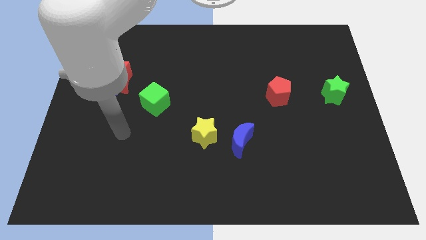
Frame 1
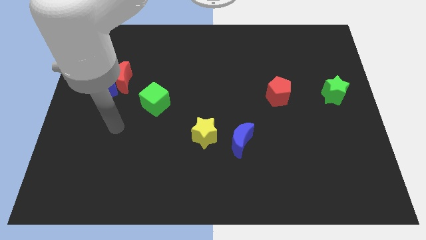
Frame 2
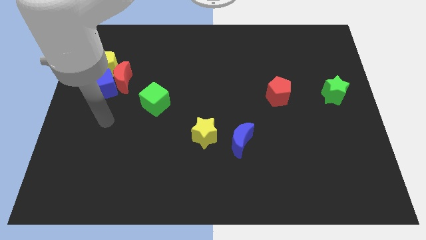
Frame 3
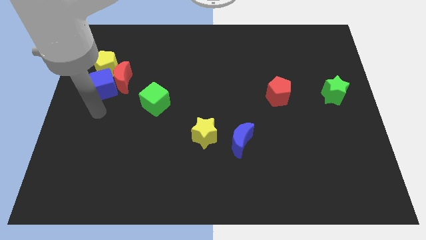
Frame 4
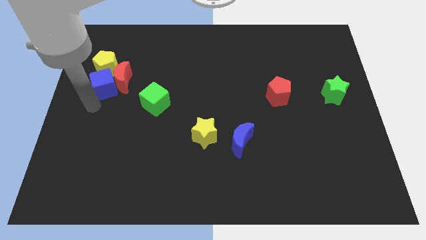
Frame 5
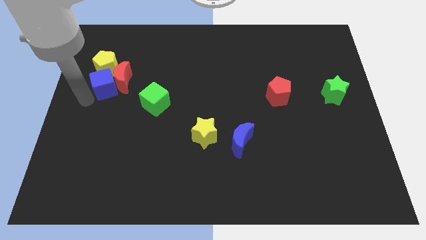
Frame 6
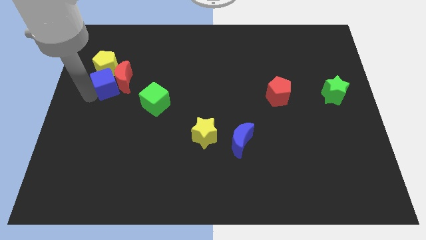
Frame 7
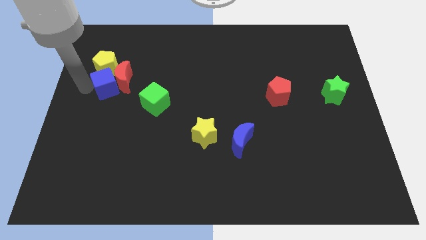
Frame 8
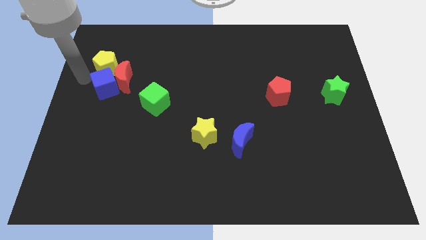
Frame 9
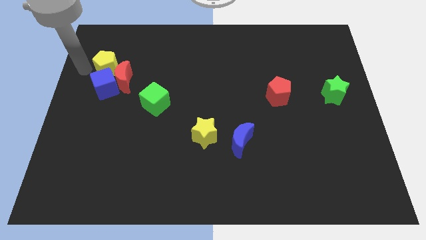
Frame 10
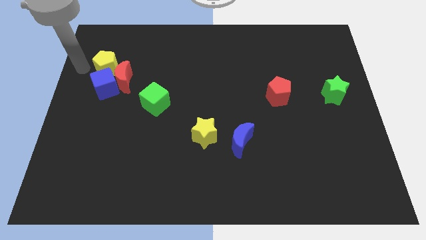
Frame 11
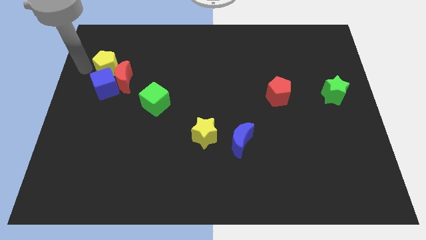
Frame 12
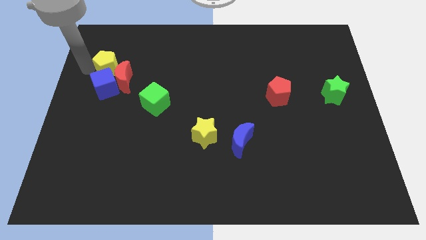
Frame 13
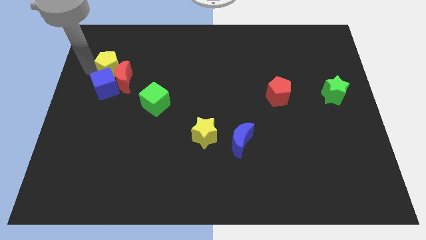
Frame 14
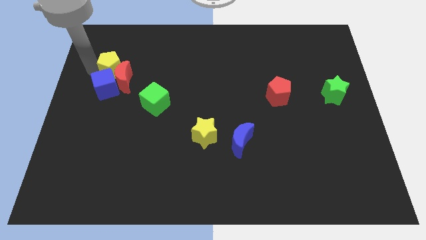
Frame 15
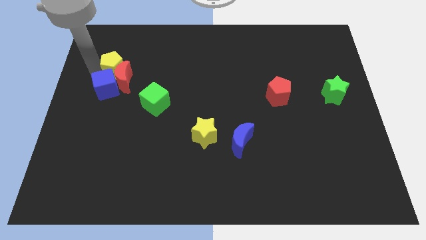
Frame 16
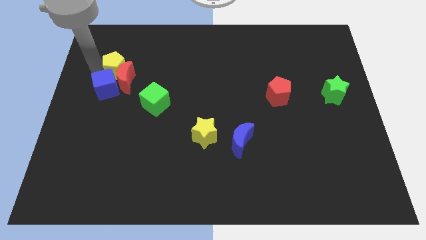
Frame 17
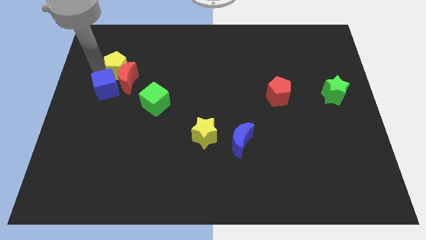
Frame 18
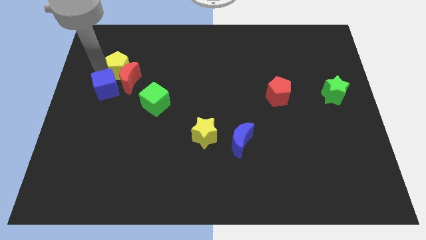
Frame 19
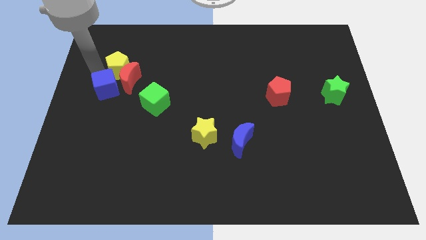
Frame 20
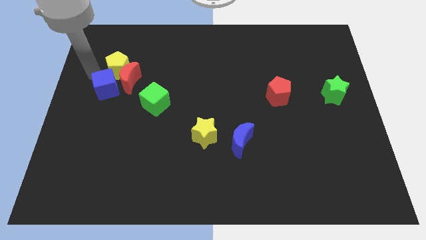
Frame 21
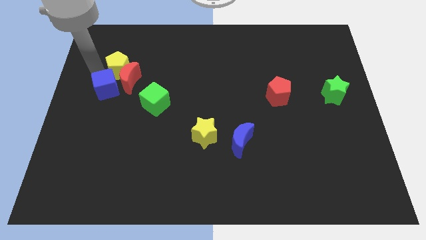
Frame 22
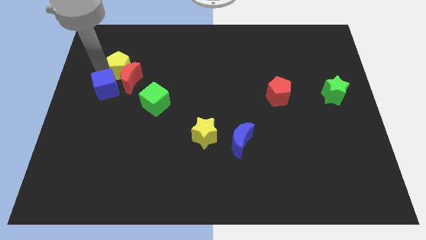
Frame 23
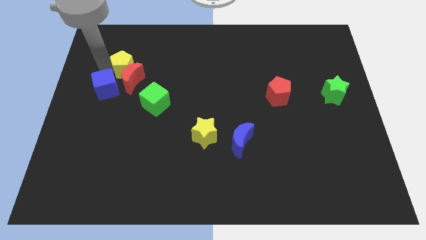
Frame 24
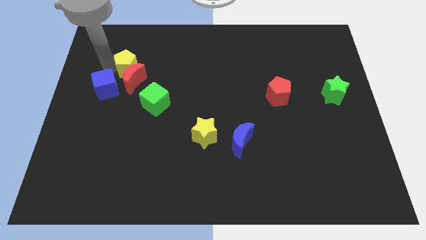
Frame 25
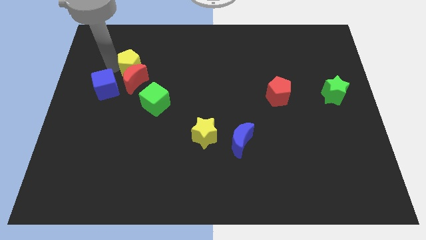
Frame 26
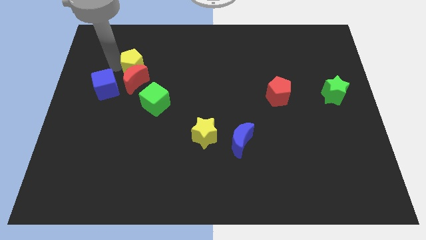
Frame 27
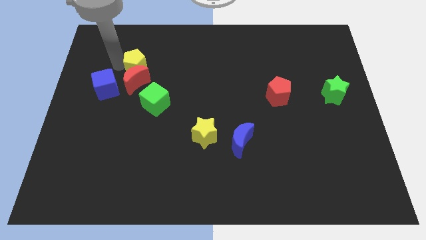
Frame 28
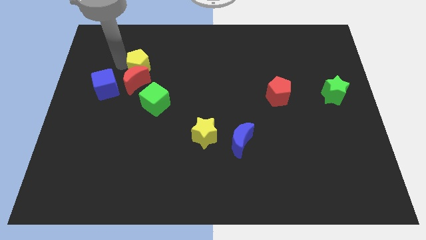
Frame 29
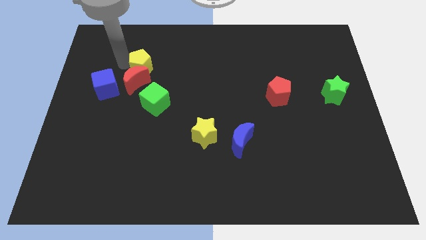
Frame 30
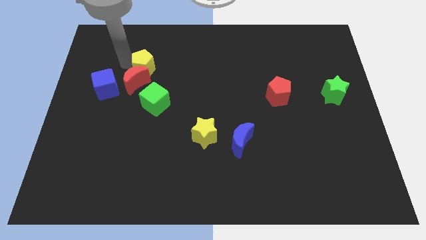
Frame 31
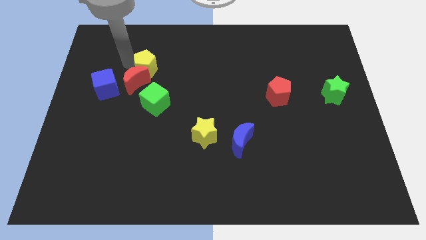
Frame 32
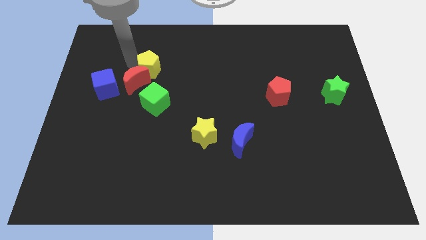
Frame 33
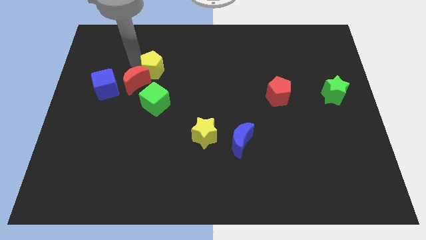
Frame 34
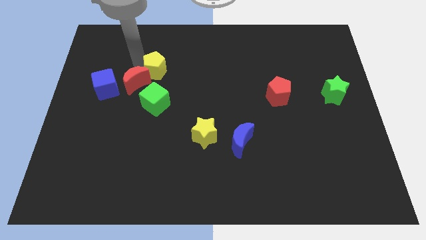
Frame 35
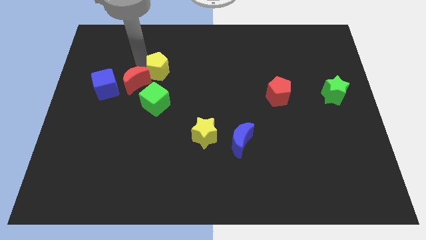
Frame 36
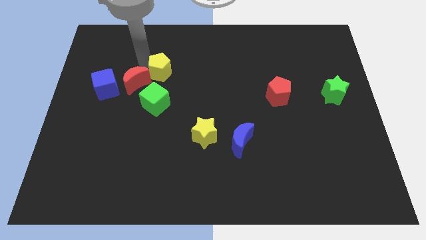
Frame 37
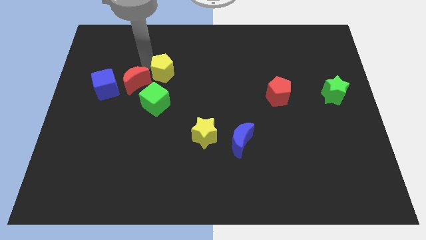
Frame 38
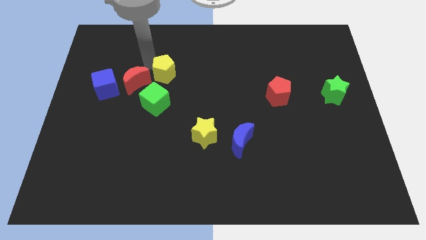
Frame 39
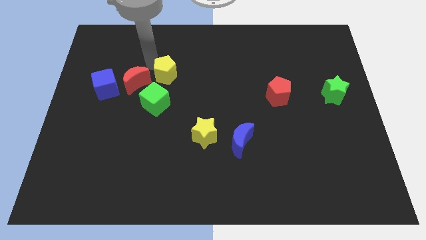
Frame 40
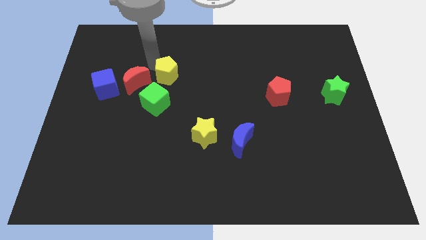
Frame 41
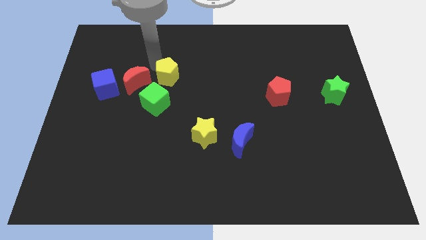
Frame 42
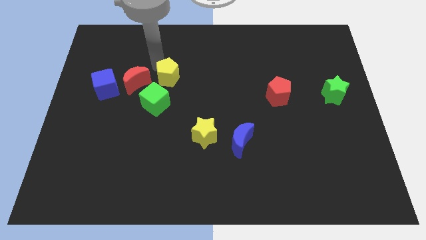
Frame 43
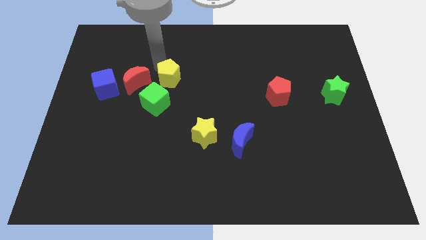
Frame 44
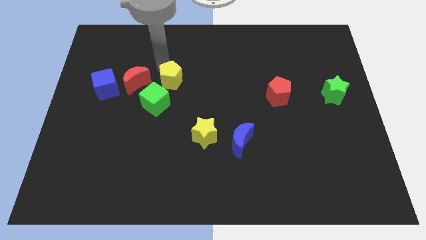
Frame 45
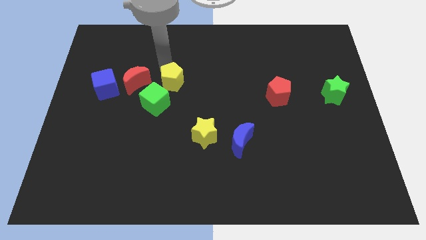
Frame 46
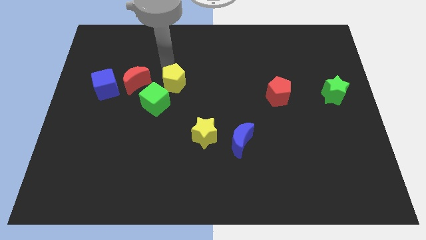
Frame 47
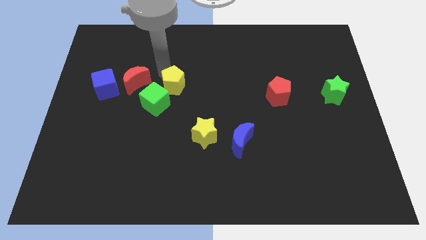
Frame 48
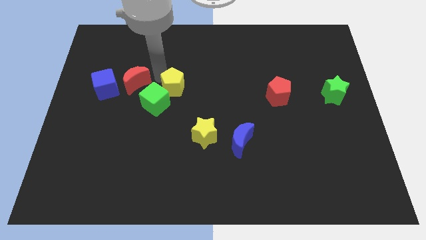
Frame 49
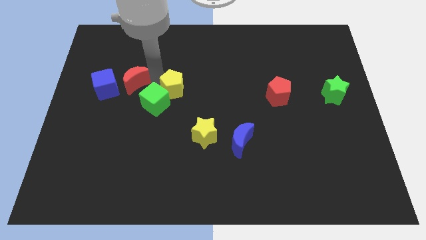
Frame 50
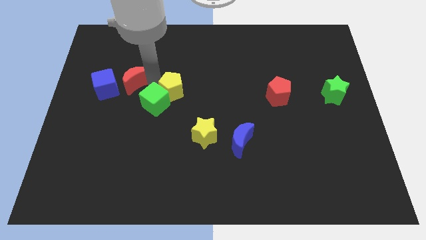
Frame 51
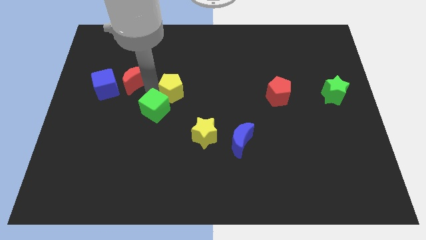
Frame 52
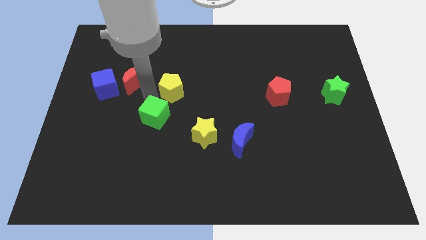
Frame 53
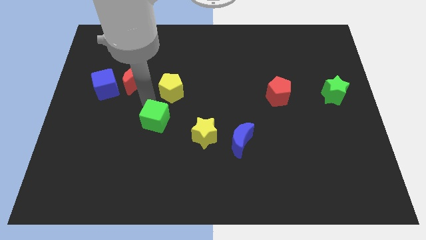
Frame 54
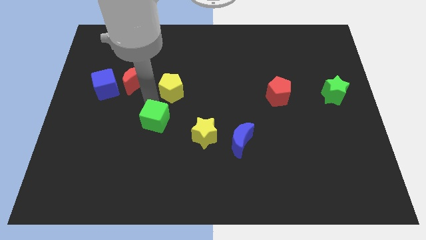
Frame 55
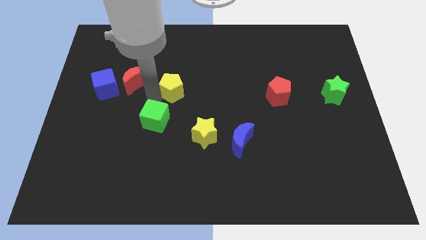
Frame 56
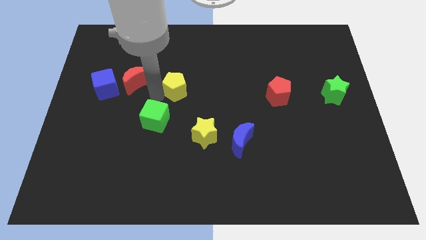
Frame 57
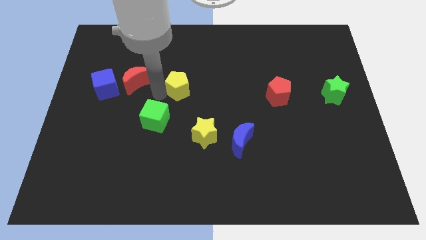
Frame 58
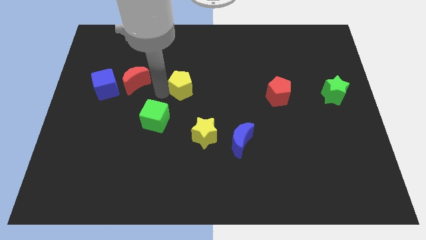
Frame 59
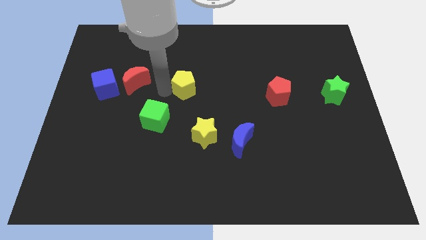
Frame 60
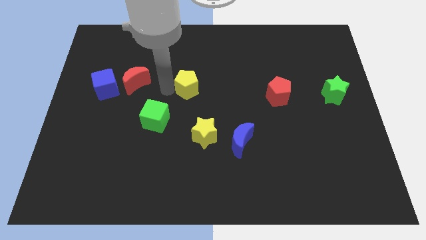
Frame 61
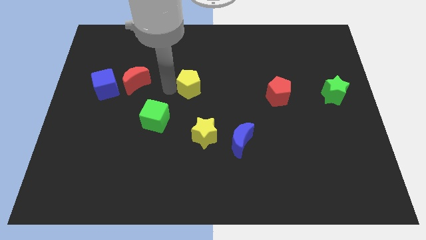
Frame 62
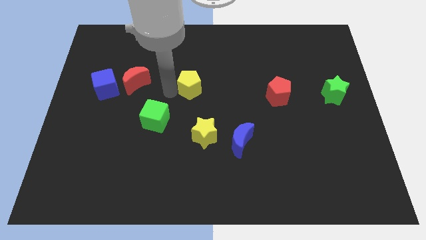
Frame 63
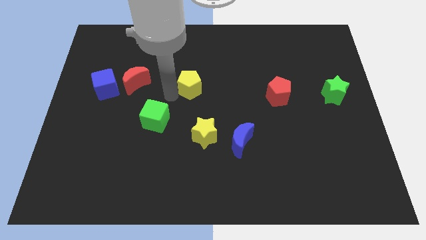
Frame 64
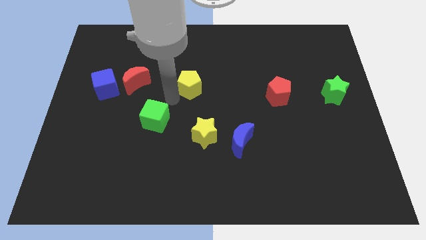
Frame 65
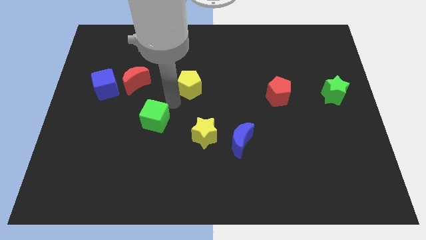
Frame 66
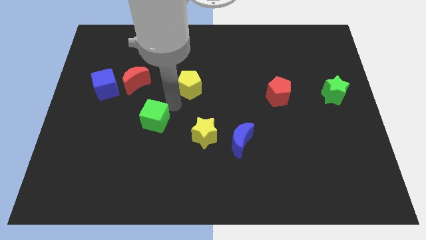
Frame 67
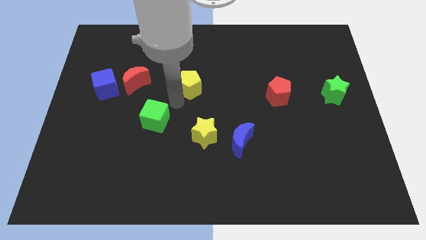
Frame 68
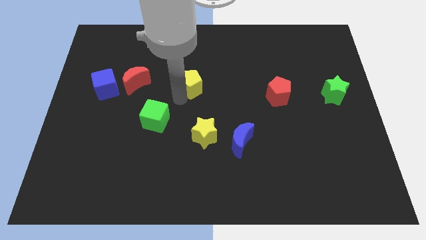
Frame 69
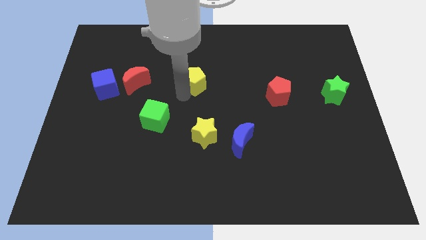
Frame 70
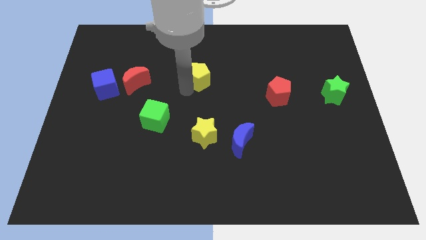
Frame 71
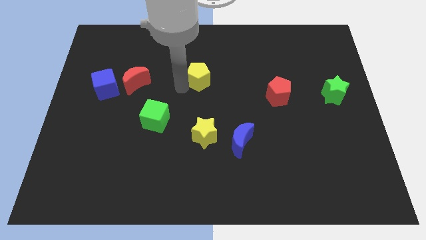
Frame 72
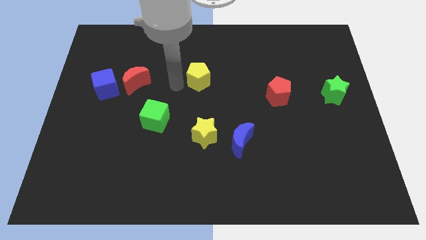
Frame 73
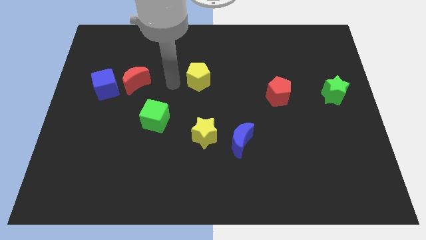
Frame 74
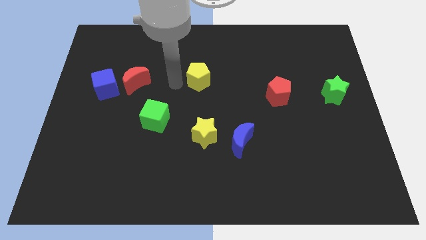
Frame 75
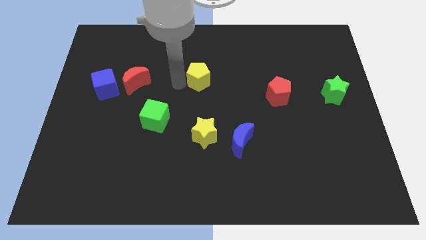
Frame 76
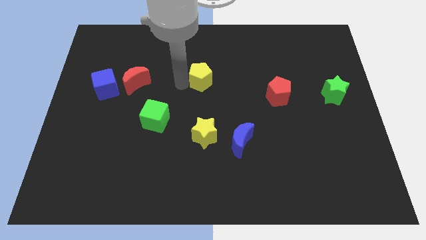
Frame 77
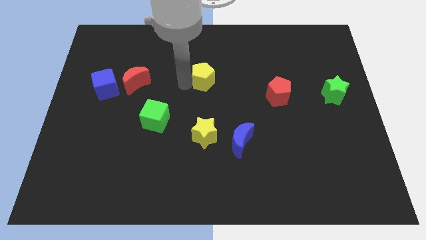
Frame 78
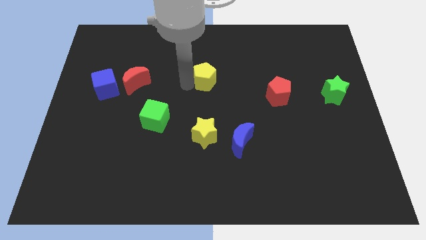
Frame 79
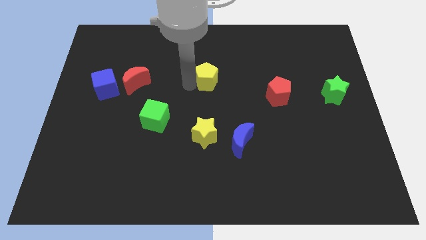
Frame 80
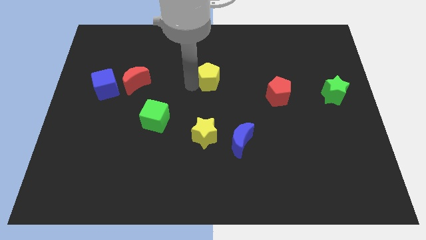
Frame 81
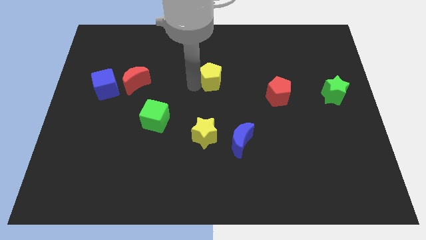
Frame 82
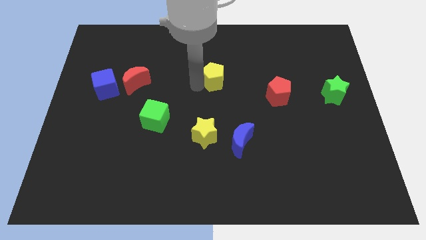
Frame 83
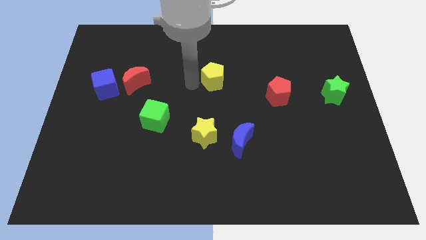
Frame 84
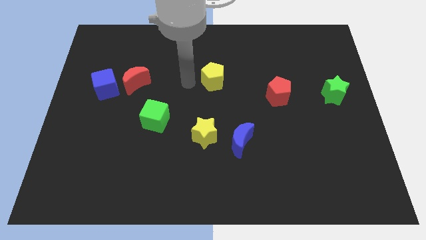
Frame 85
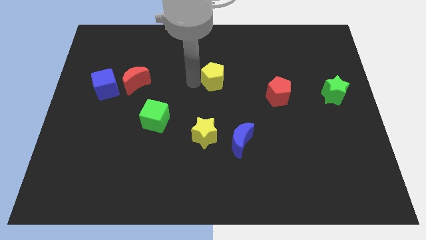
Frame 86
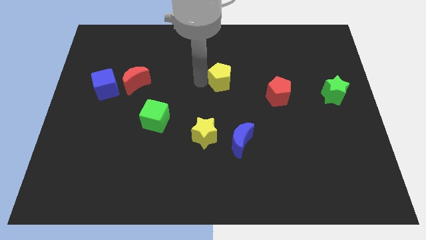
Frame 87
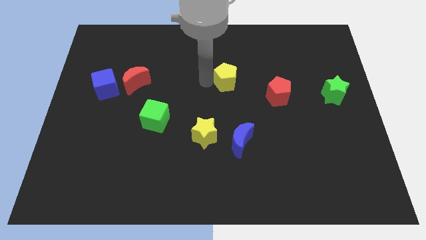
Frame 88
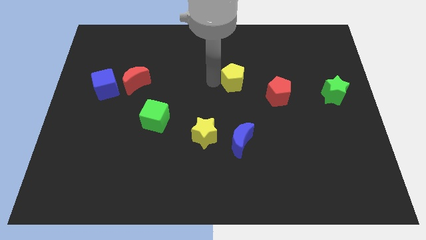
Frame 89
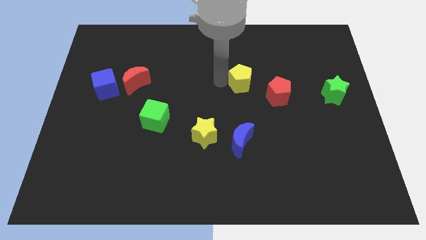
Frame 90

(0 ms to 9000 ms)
put the yellow pentagon to the top left of the red pentagon
